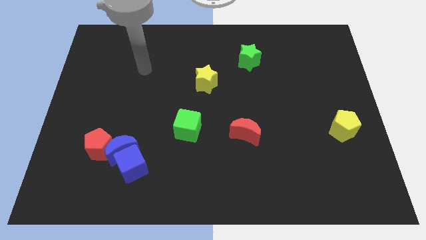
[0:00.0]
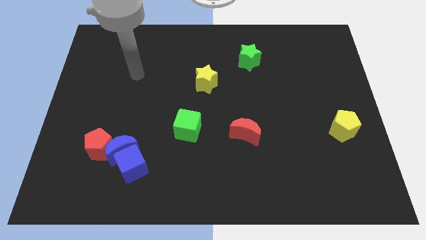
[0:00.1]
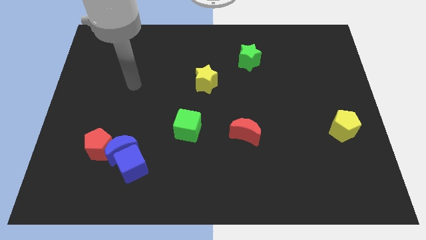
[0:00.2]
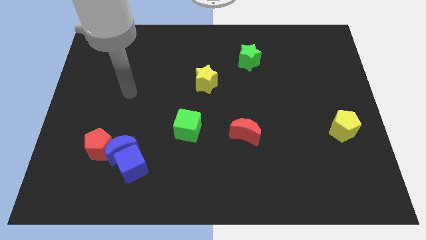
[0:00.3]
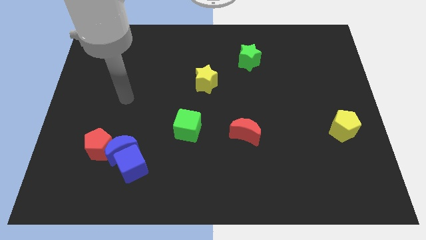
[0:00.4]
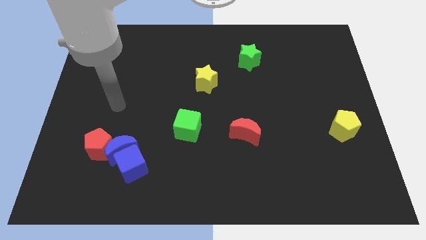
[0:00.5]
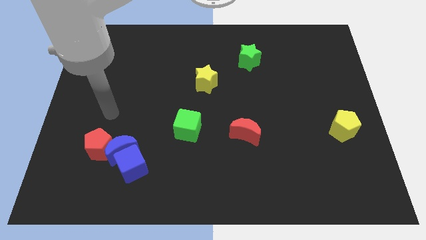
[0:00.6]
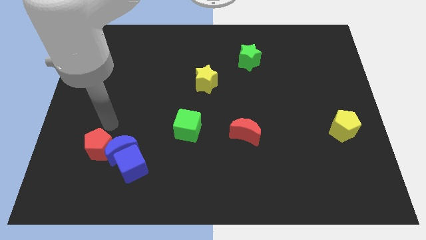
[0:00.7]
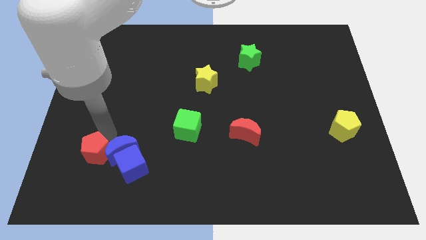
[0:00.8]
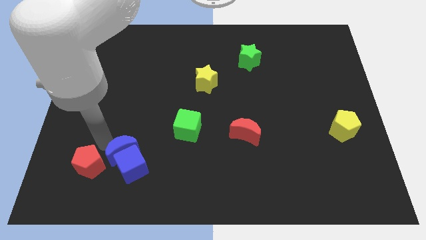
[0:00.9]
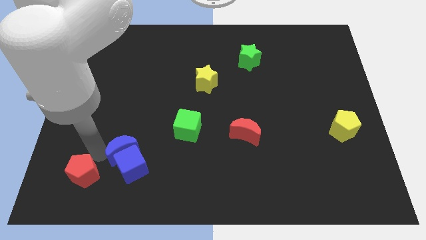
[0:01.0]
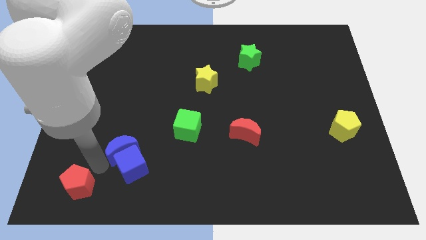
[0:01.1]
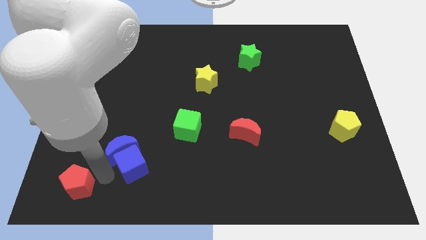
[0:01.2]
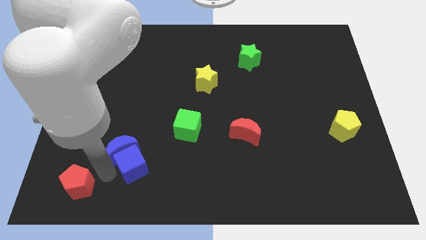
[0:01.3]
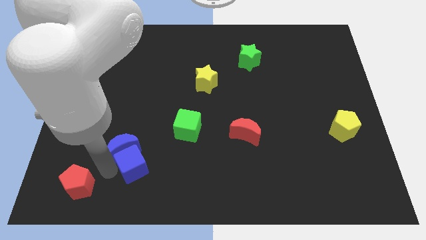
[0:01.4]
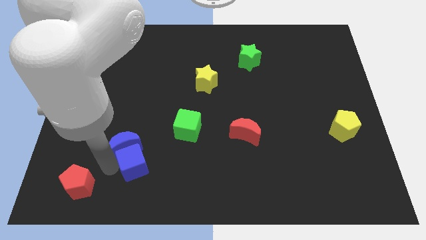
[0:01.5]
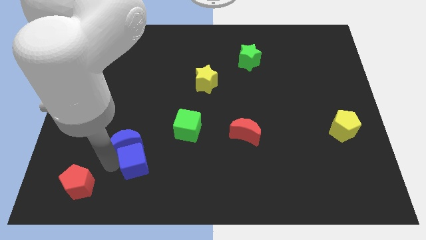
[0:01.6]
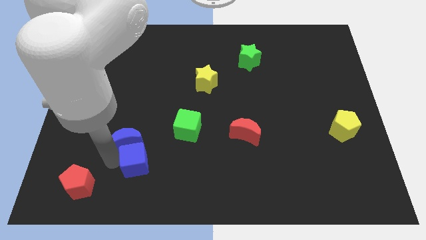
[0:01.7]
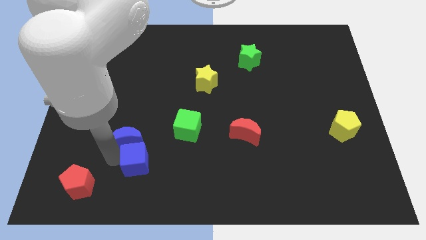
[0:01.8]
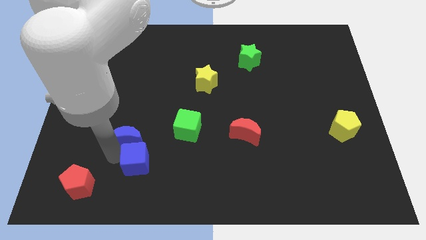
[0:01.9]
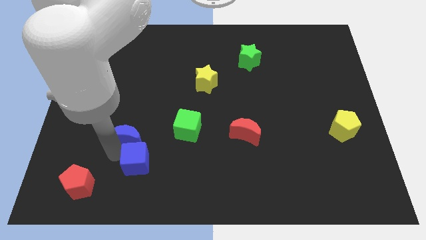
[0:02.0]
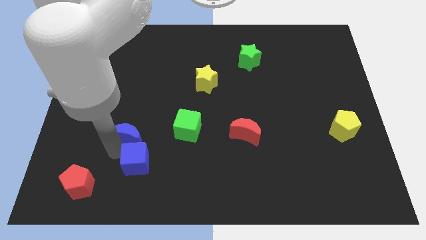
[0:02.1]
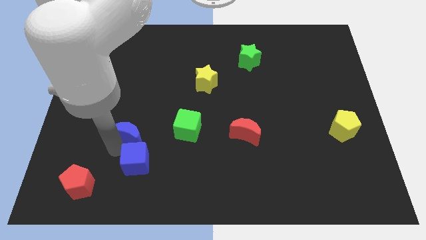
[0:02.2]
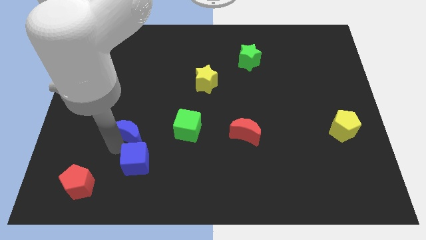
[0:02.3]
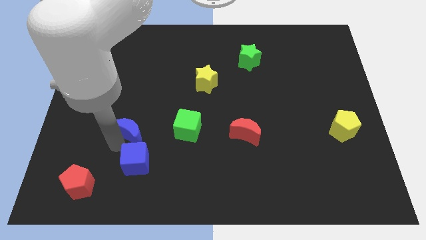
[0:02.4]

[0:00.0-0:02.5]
move the blue moon away from the blue cube and red pentagon

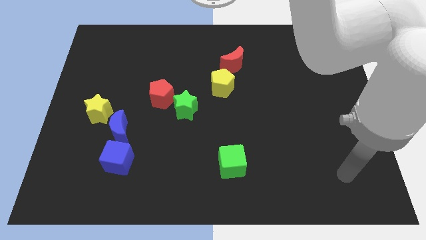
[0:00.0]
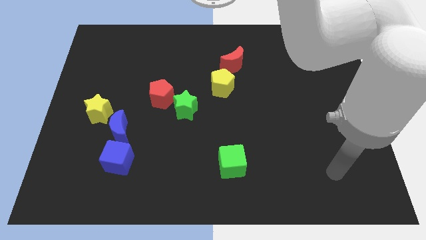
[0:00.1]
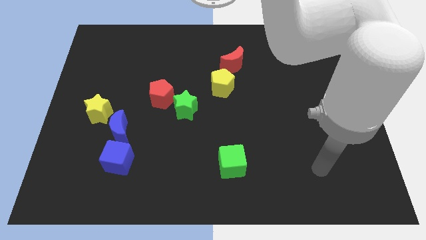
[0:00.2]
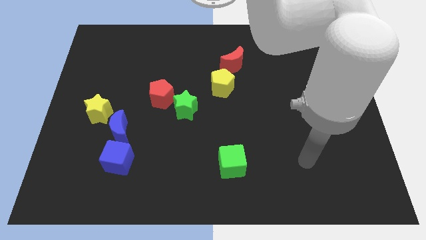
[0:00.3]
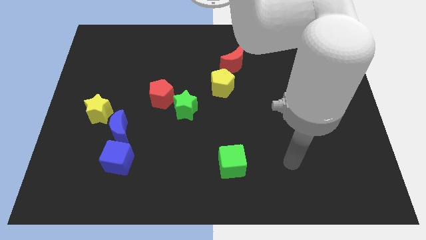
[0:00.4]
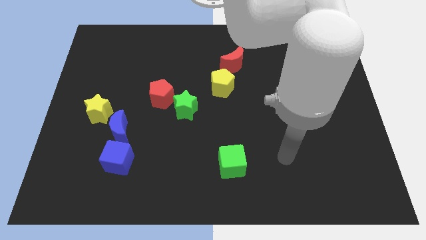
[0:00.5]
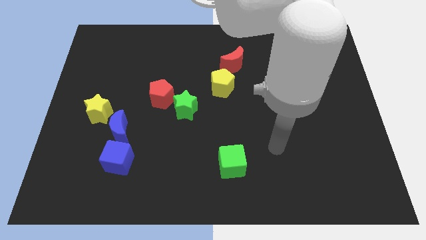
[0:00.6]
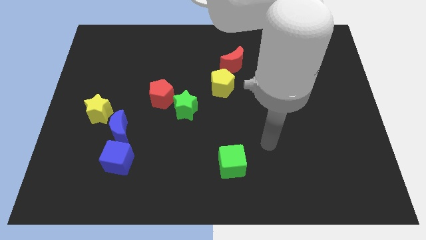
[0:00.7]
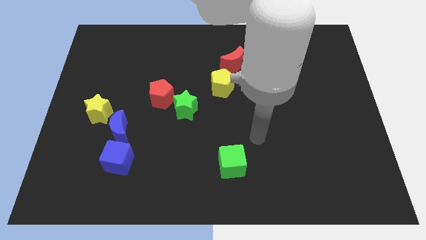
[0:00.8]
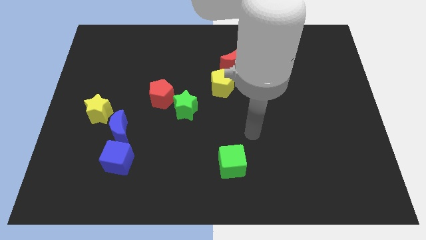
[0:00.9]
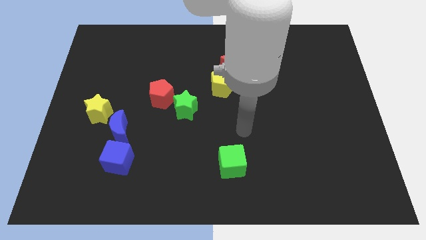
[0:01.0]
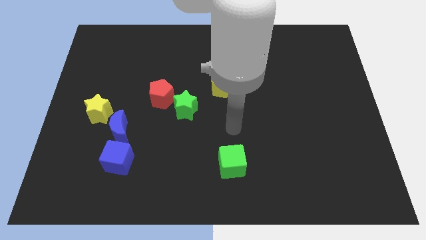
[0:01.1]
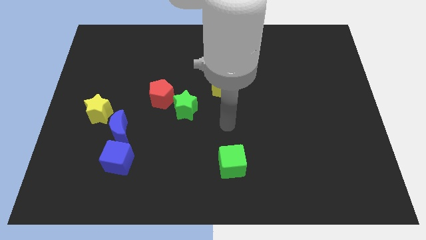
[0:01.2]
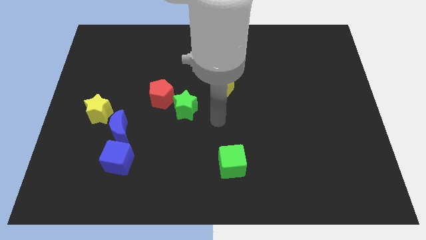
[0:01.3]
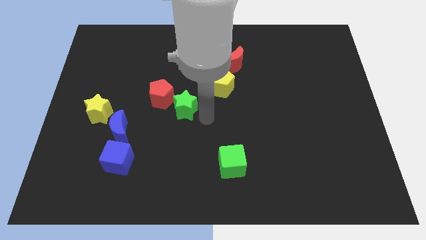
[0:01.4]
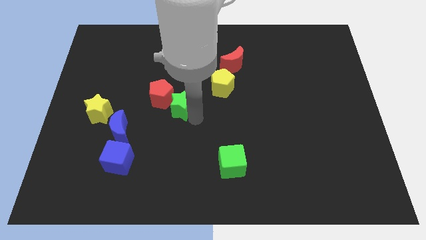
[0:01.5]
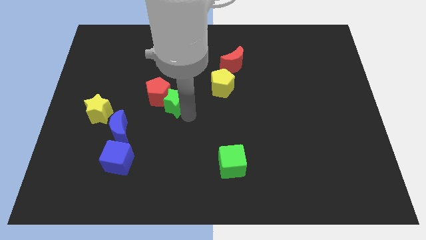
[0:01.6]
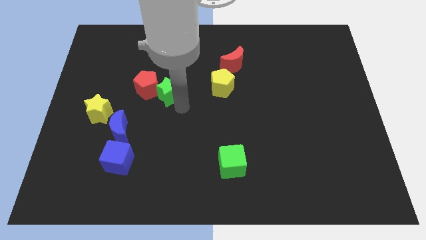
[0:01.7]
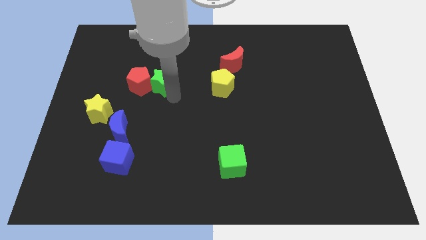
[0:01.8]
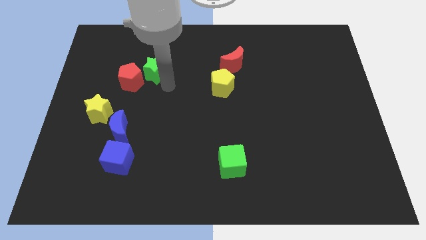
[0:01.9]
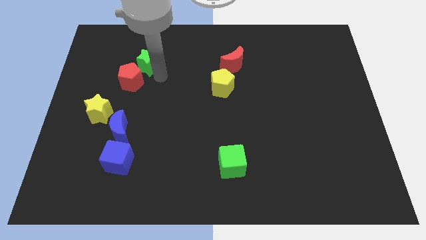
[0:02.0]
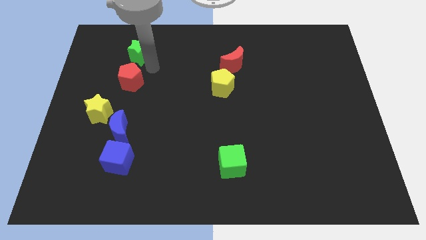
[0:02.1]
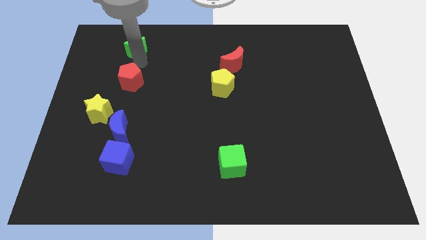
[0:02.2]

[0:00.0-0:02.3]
move the red pentagon away from the green star

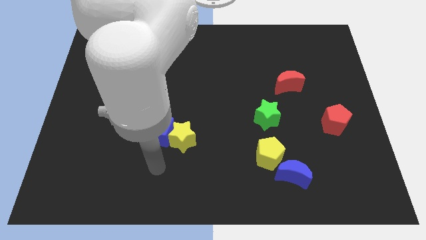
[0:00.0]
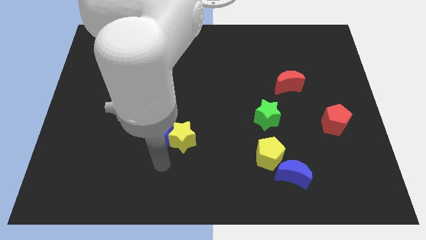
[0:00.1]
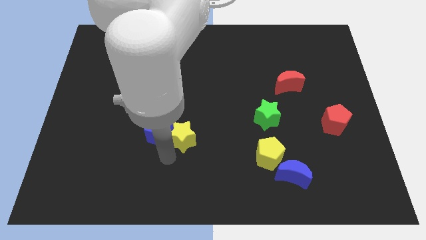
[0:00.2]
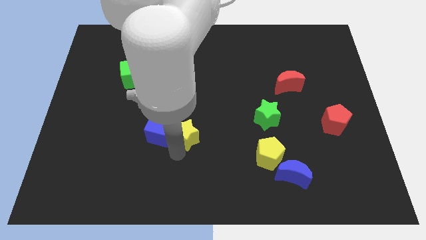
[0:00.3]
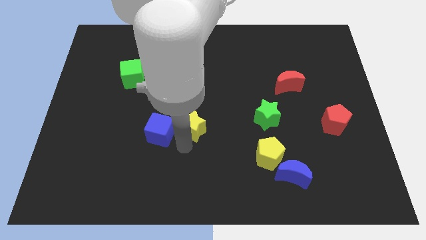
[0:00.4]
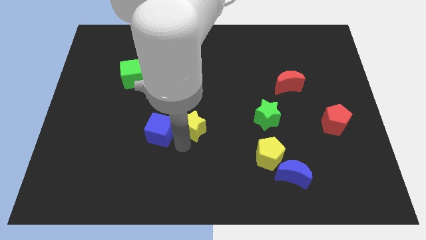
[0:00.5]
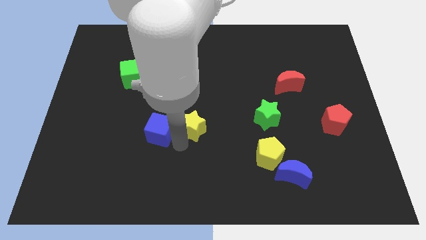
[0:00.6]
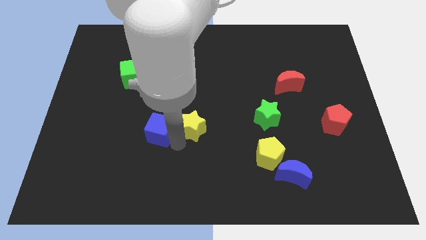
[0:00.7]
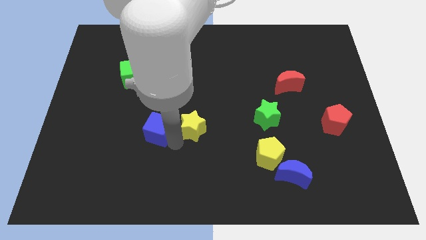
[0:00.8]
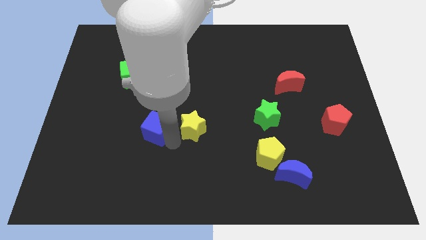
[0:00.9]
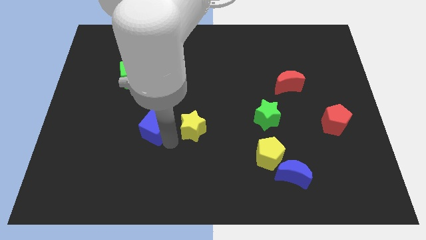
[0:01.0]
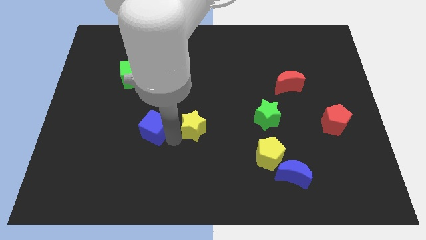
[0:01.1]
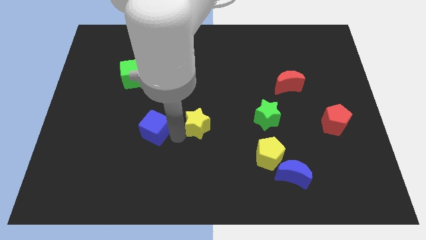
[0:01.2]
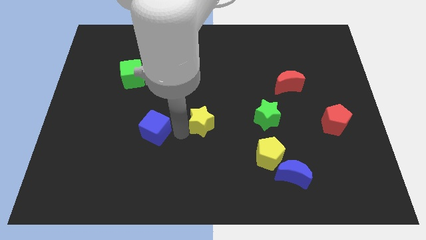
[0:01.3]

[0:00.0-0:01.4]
separate the blue cube from the yellow star

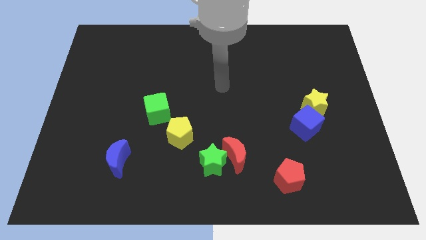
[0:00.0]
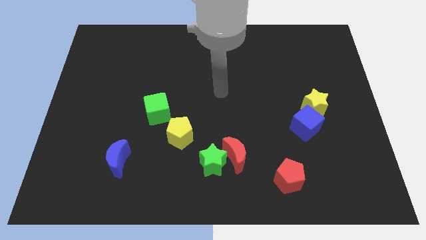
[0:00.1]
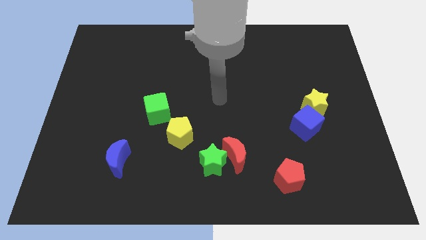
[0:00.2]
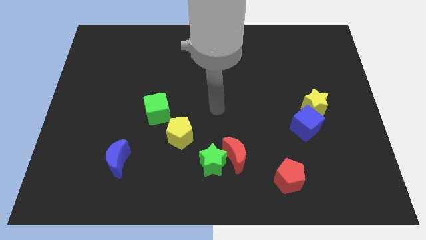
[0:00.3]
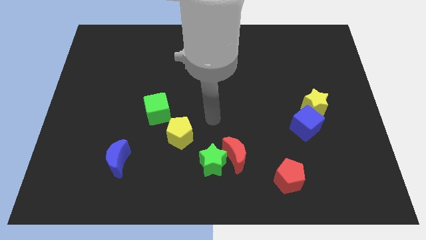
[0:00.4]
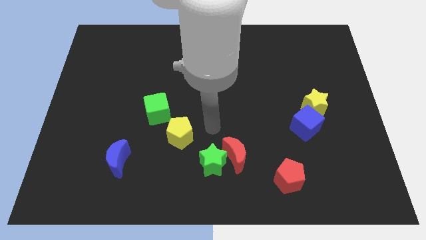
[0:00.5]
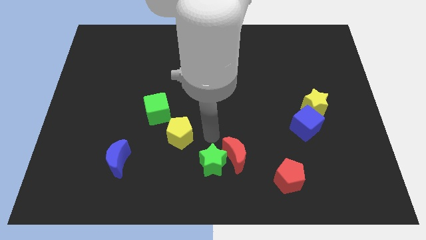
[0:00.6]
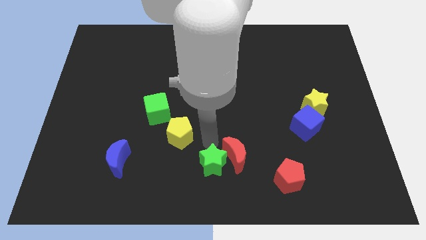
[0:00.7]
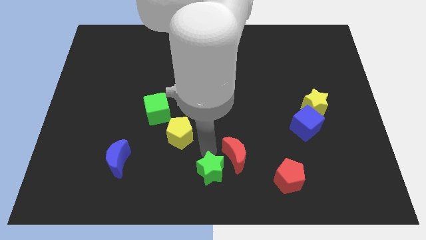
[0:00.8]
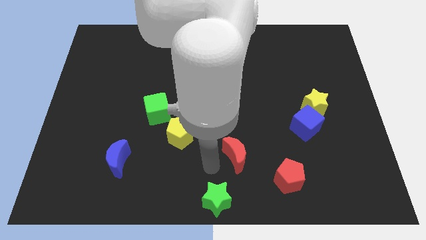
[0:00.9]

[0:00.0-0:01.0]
separate the red moon from the green star

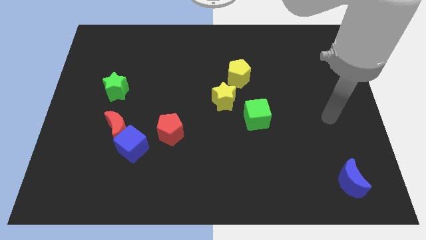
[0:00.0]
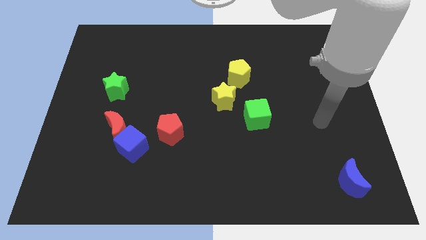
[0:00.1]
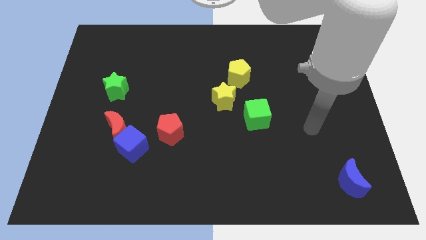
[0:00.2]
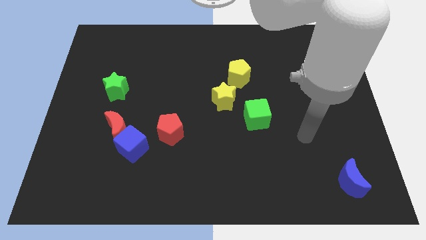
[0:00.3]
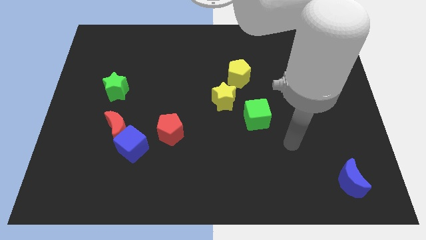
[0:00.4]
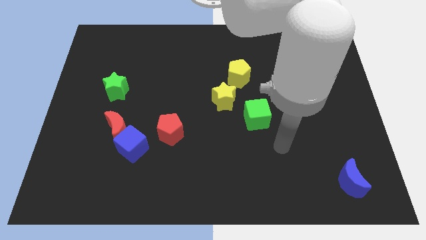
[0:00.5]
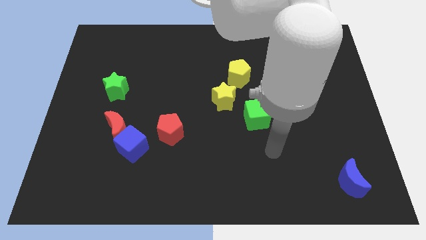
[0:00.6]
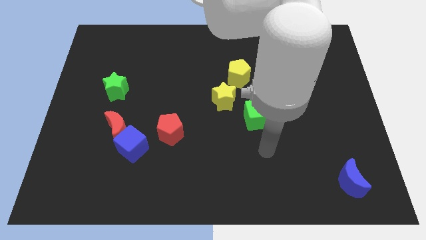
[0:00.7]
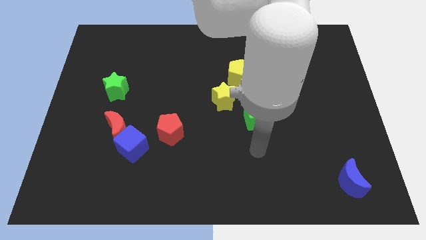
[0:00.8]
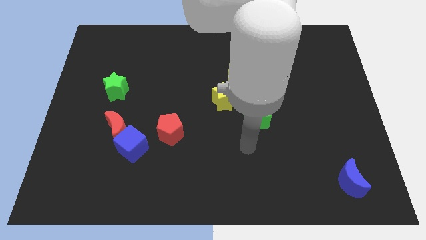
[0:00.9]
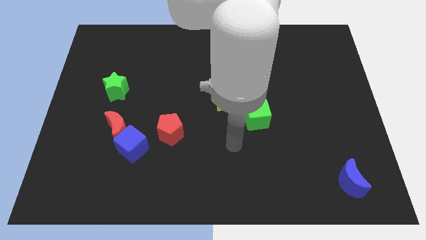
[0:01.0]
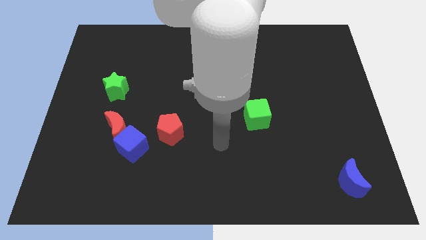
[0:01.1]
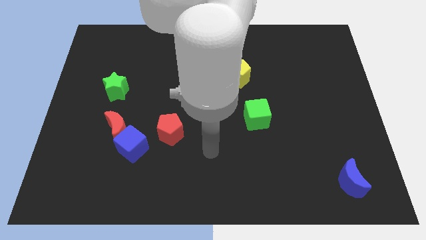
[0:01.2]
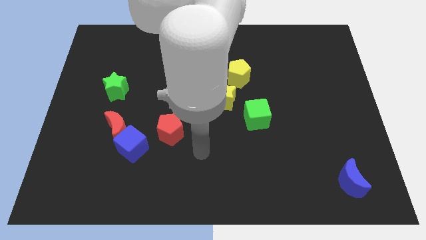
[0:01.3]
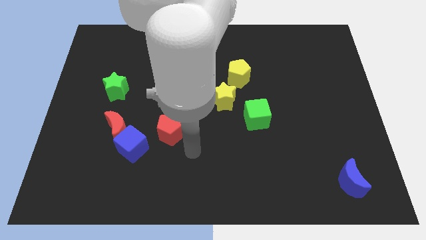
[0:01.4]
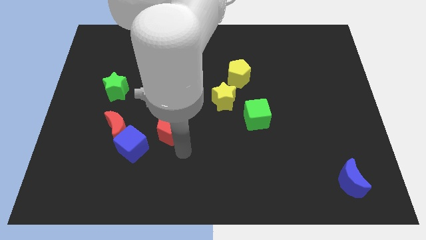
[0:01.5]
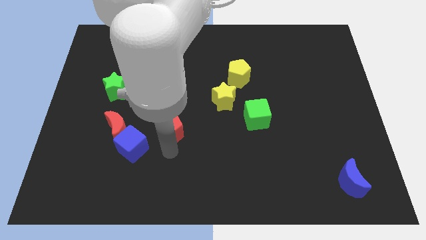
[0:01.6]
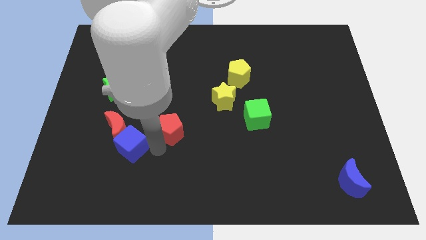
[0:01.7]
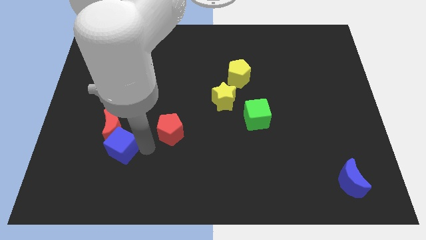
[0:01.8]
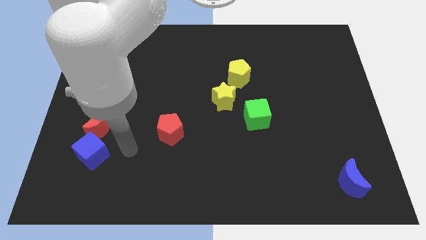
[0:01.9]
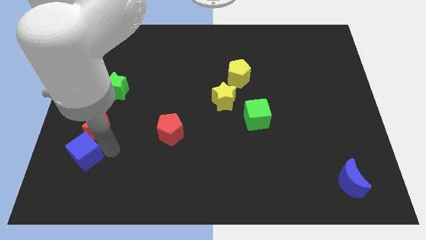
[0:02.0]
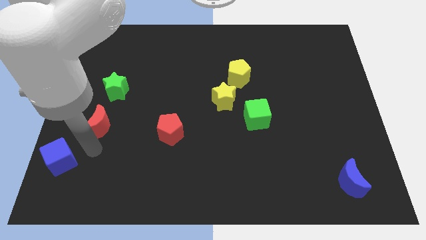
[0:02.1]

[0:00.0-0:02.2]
move the red moon away from the blue cube

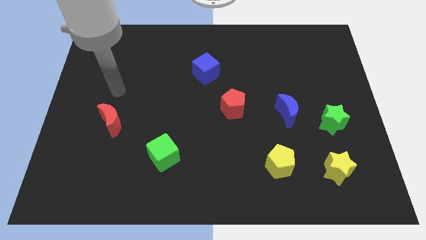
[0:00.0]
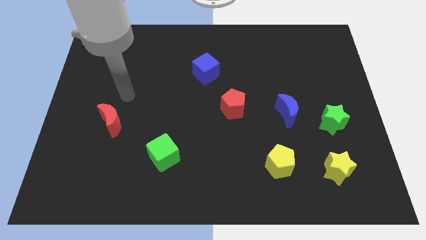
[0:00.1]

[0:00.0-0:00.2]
move the blue moon away from the green star
